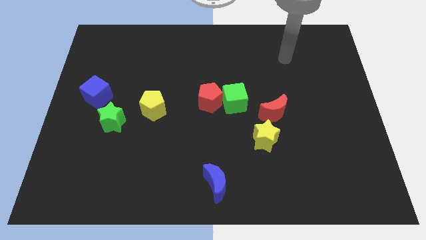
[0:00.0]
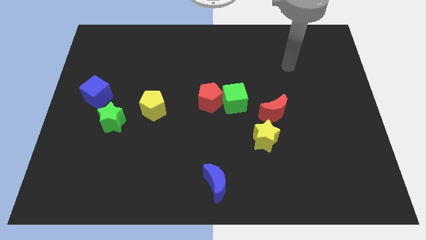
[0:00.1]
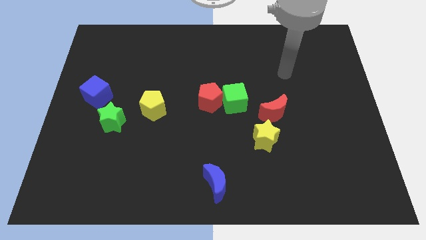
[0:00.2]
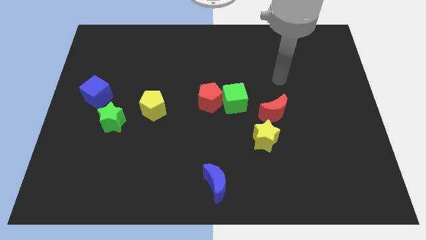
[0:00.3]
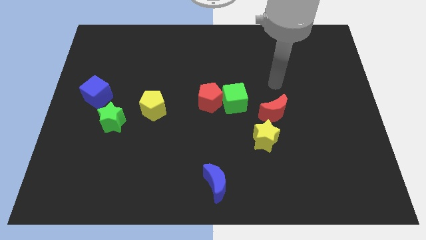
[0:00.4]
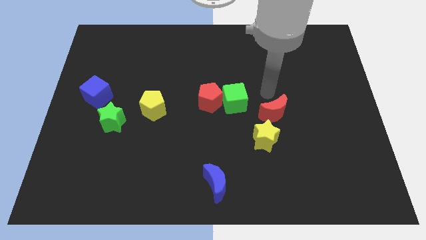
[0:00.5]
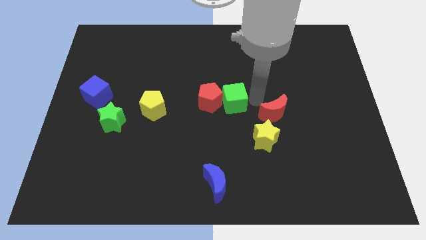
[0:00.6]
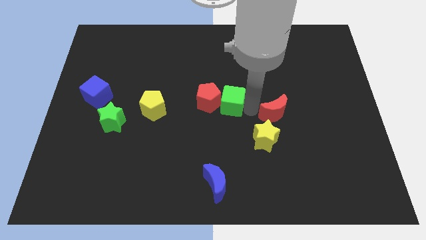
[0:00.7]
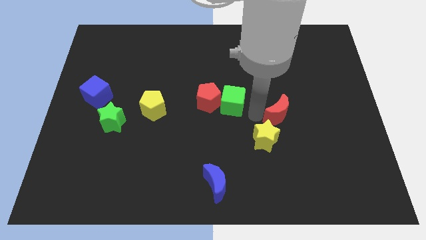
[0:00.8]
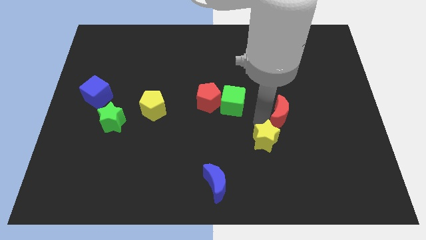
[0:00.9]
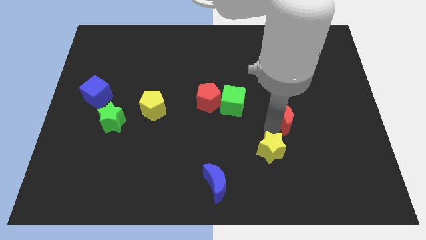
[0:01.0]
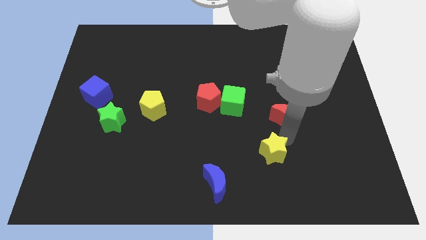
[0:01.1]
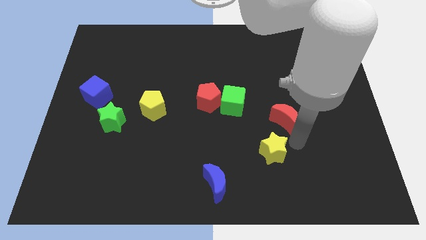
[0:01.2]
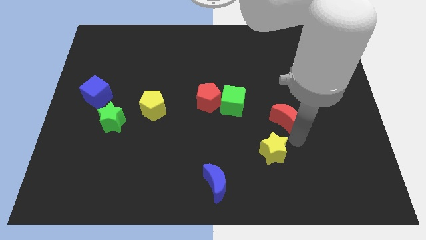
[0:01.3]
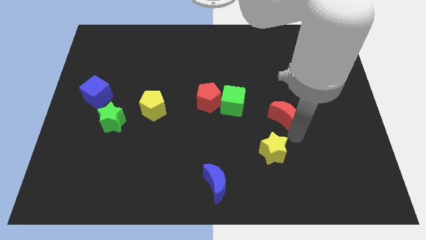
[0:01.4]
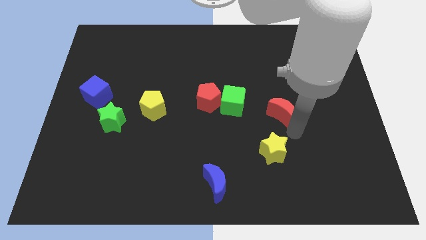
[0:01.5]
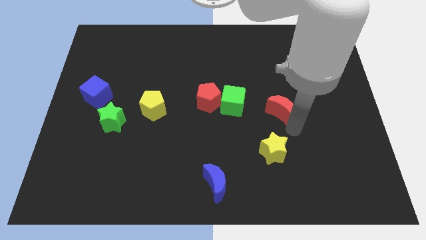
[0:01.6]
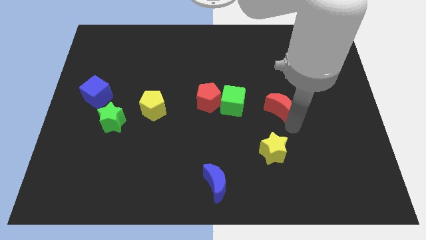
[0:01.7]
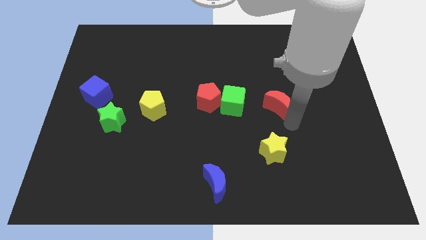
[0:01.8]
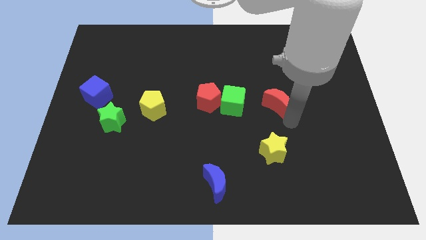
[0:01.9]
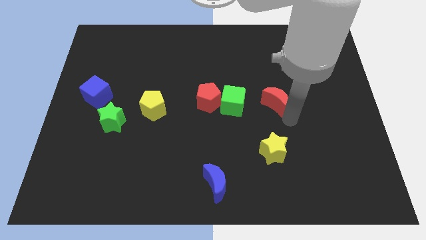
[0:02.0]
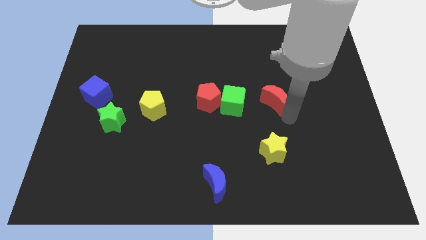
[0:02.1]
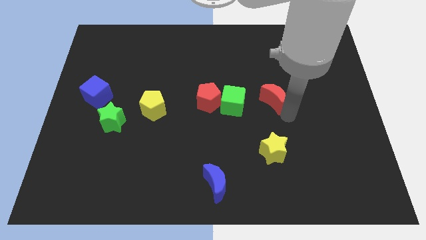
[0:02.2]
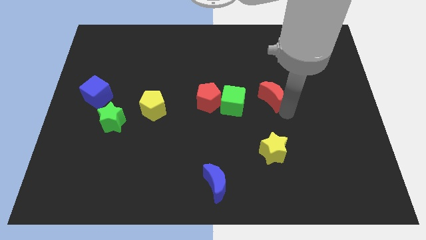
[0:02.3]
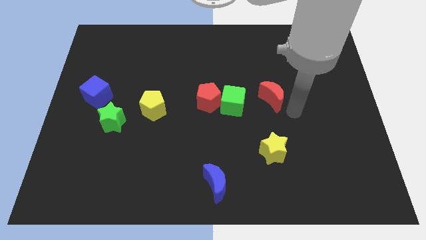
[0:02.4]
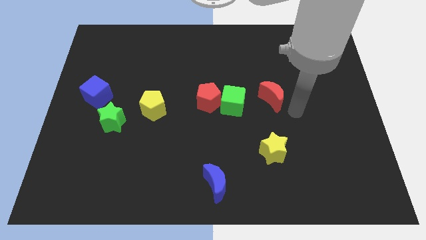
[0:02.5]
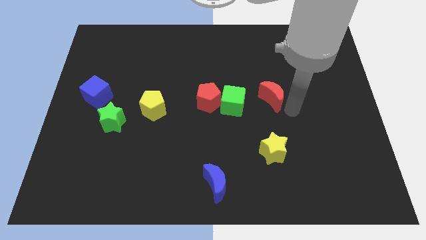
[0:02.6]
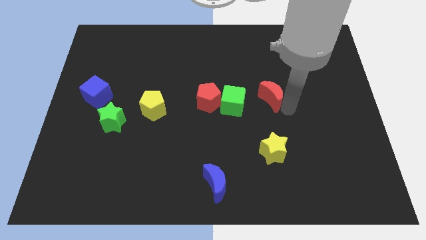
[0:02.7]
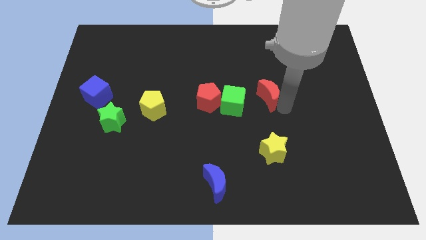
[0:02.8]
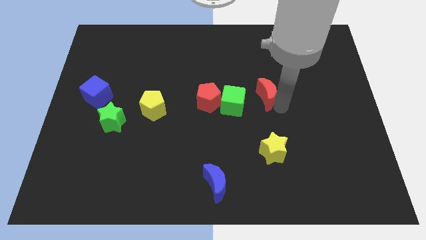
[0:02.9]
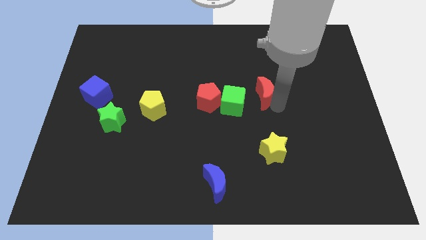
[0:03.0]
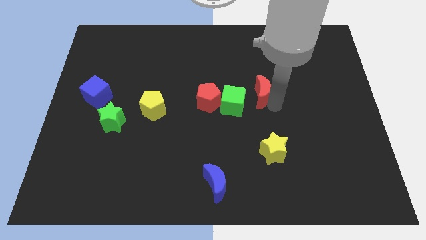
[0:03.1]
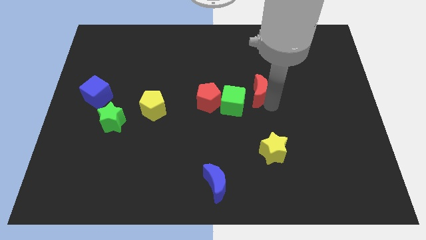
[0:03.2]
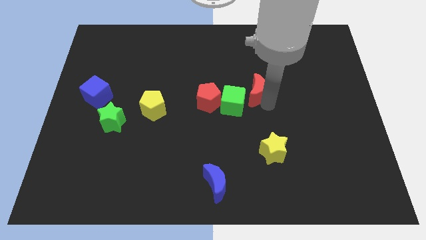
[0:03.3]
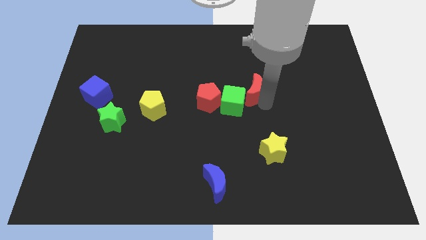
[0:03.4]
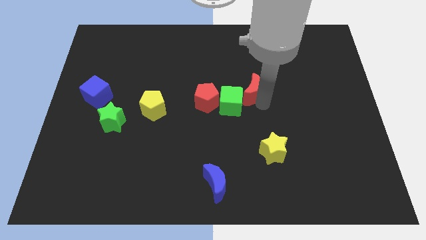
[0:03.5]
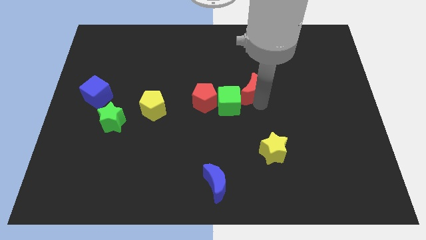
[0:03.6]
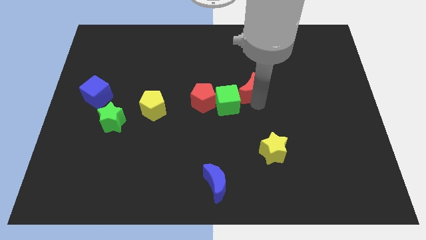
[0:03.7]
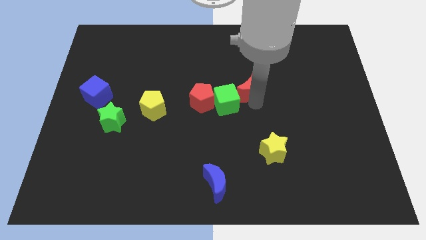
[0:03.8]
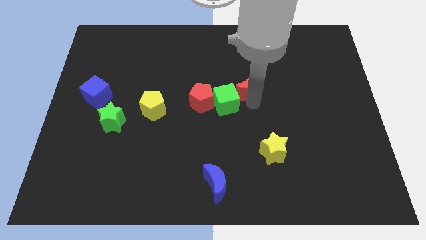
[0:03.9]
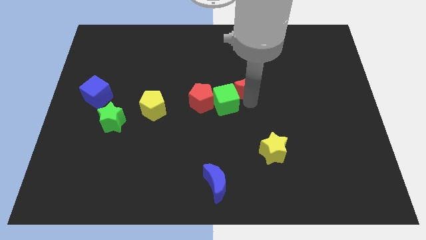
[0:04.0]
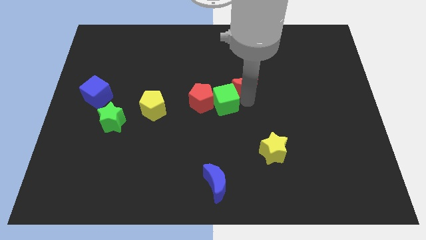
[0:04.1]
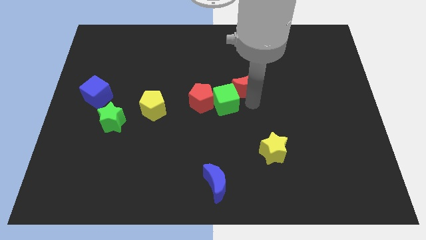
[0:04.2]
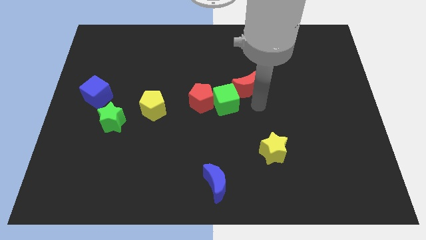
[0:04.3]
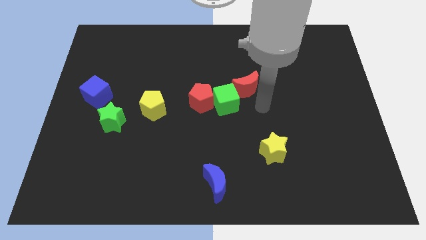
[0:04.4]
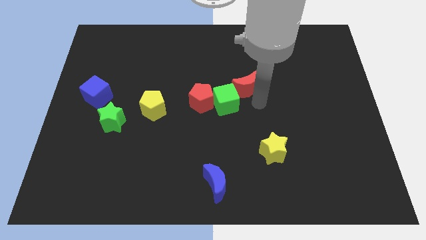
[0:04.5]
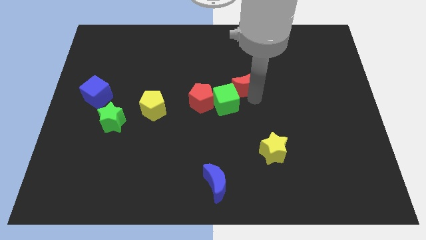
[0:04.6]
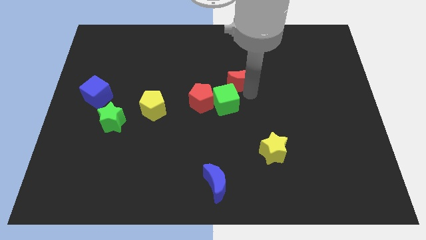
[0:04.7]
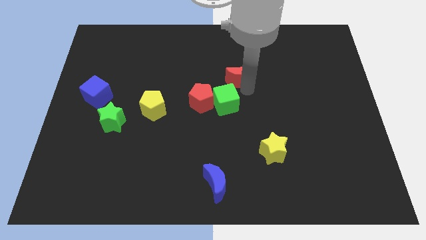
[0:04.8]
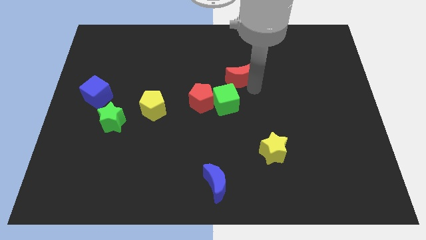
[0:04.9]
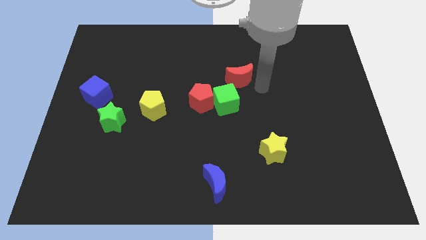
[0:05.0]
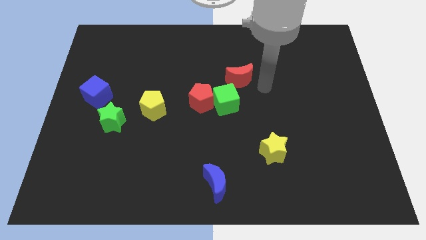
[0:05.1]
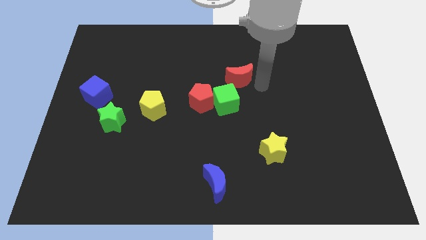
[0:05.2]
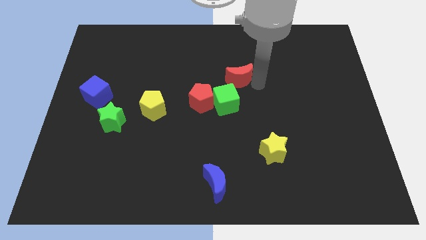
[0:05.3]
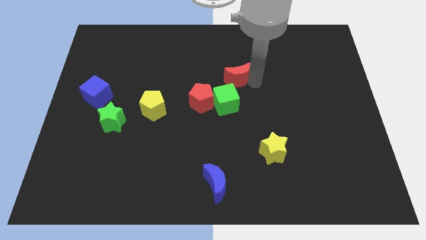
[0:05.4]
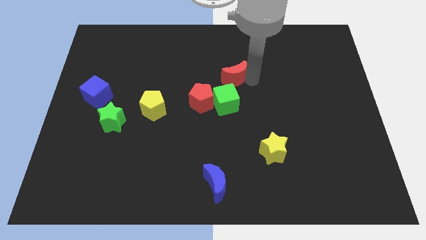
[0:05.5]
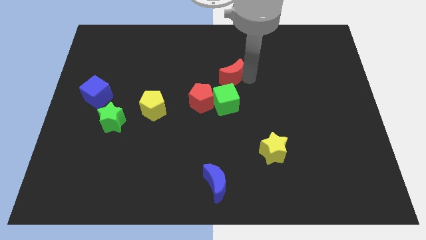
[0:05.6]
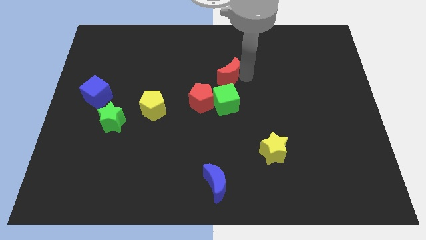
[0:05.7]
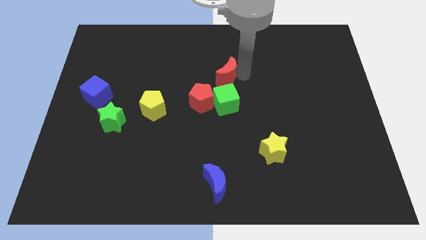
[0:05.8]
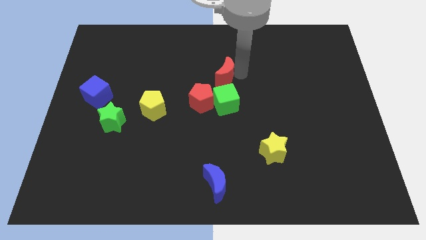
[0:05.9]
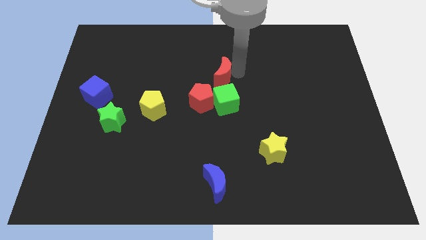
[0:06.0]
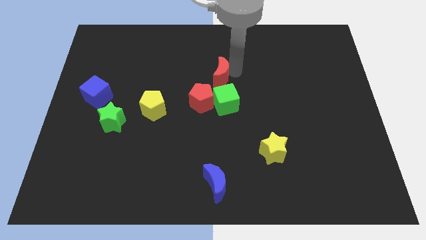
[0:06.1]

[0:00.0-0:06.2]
move the red moon to the top of the red pentagon
